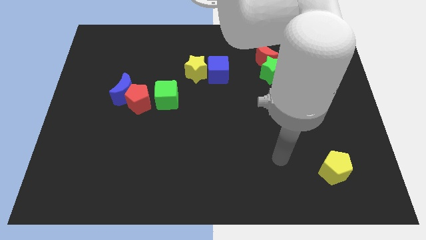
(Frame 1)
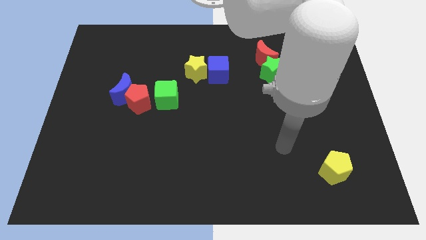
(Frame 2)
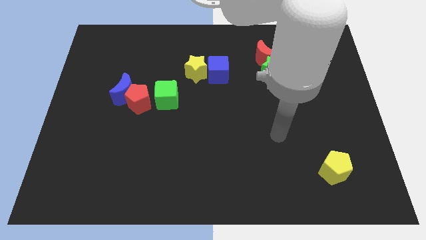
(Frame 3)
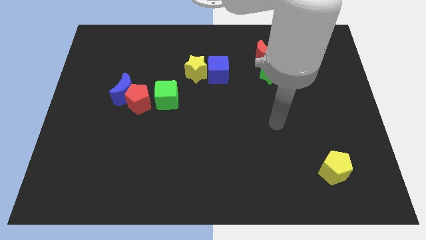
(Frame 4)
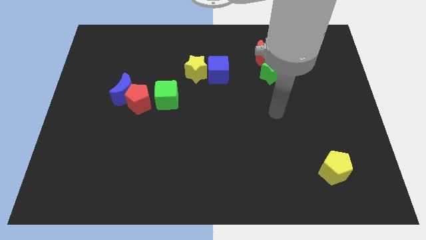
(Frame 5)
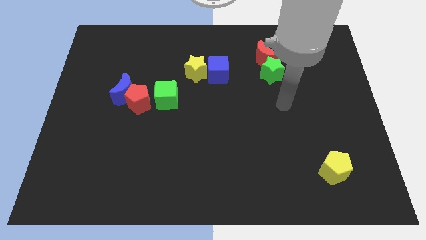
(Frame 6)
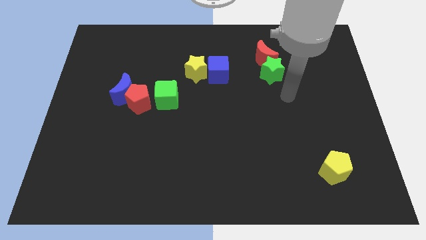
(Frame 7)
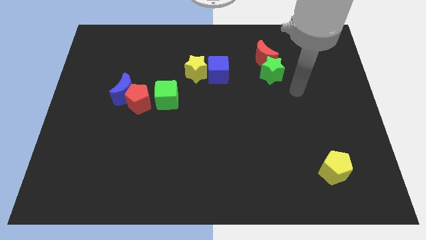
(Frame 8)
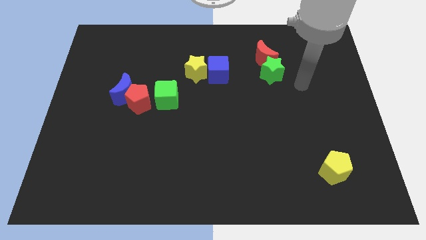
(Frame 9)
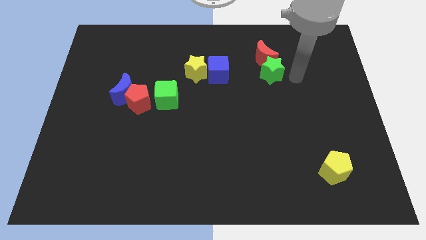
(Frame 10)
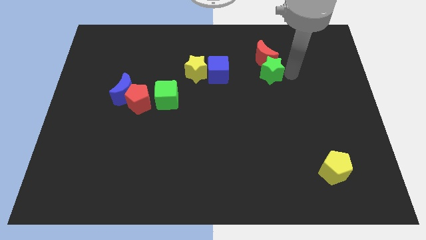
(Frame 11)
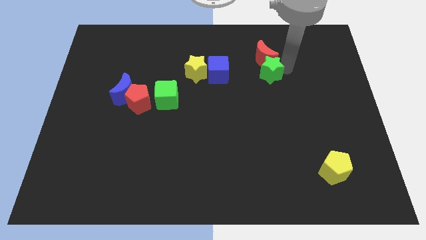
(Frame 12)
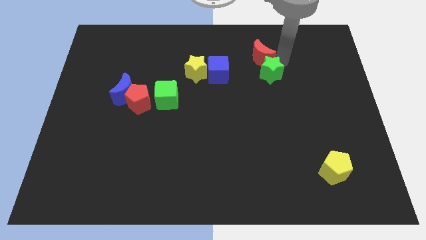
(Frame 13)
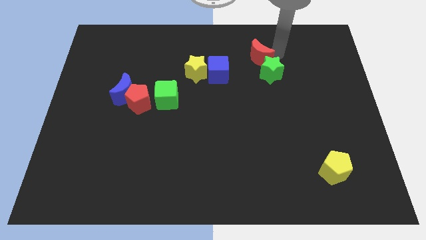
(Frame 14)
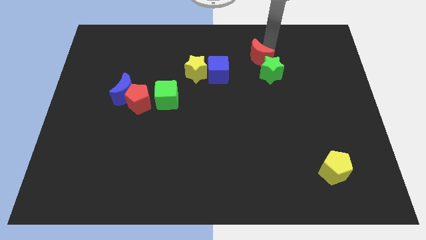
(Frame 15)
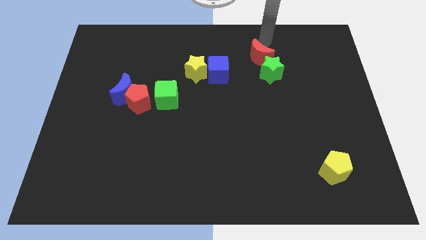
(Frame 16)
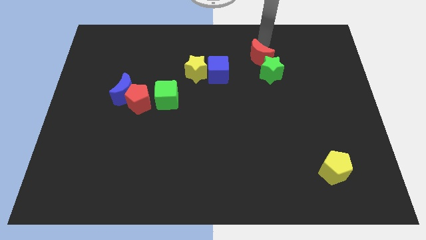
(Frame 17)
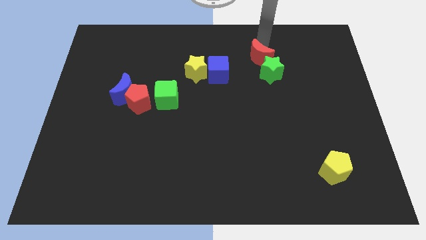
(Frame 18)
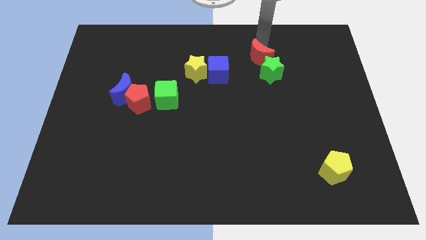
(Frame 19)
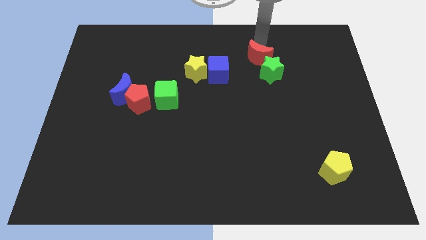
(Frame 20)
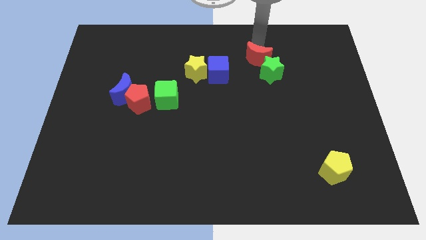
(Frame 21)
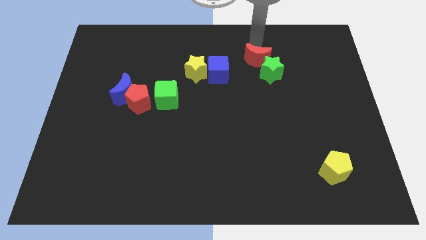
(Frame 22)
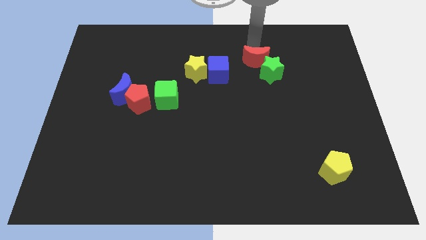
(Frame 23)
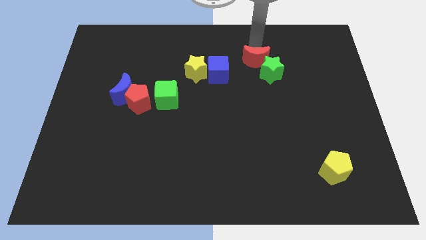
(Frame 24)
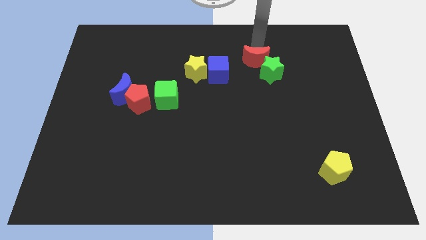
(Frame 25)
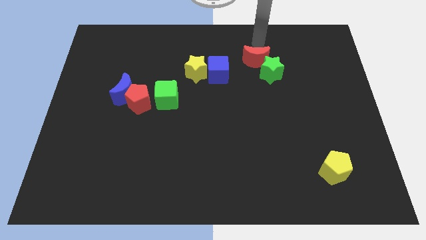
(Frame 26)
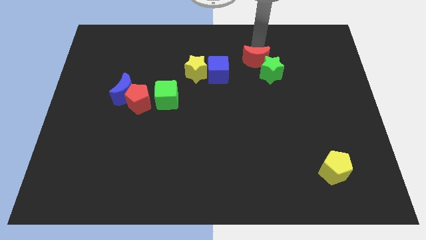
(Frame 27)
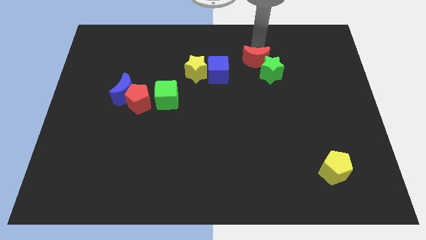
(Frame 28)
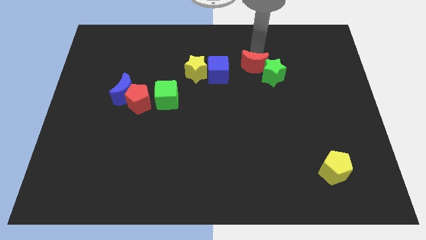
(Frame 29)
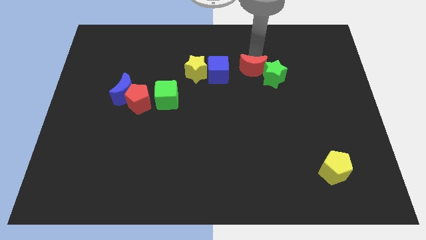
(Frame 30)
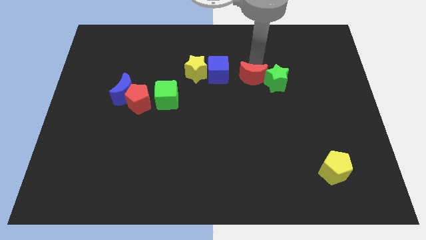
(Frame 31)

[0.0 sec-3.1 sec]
move the red moon a bit downwards and to the left diagonally

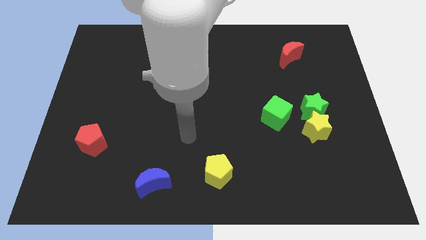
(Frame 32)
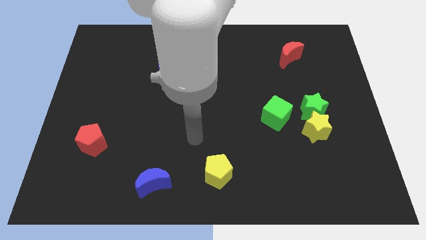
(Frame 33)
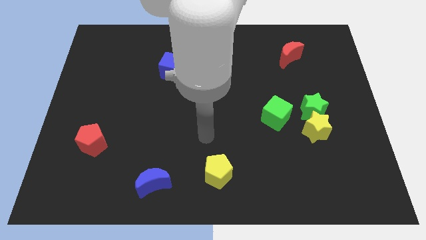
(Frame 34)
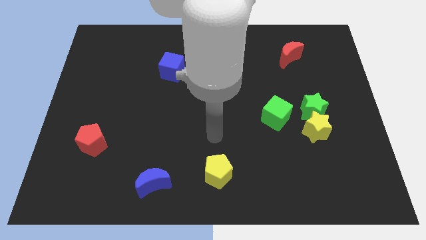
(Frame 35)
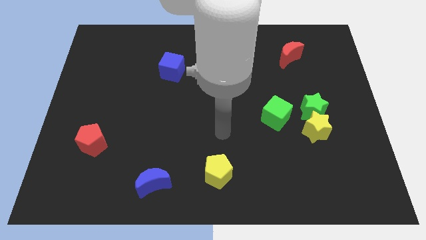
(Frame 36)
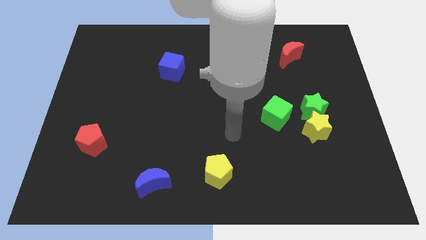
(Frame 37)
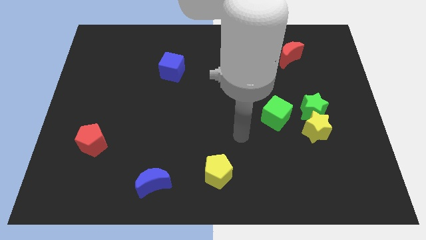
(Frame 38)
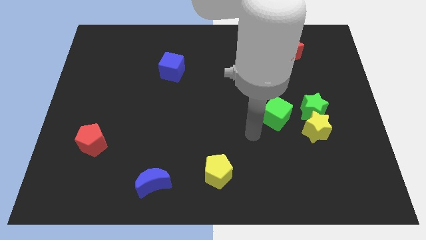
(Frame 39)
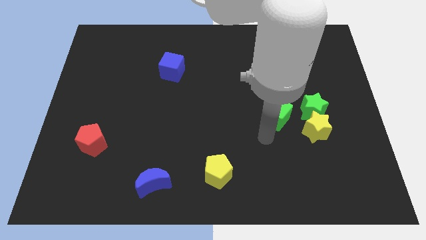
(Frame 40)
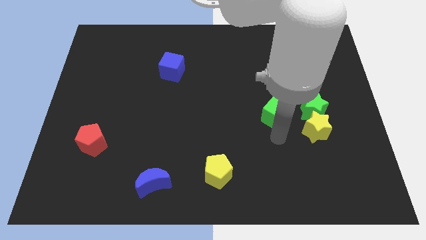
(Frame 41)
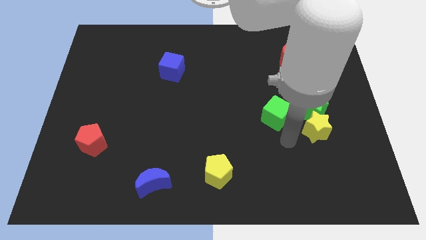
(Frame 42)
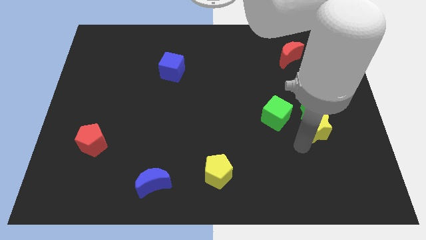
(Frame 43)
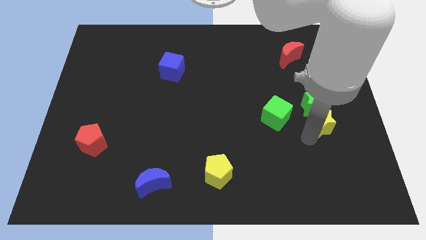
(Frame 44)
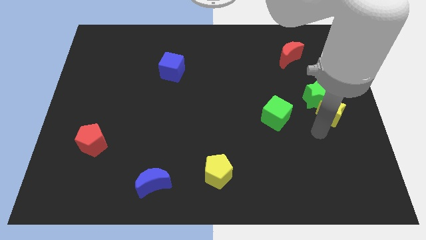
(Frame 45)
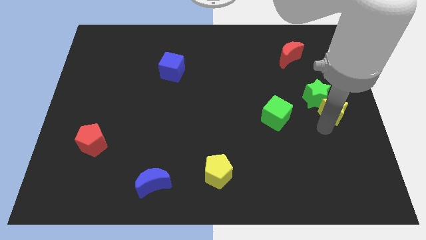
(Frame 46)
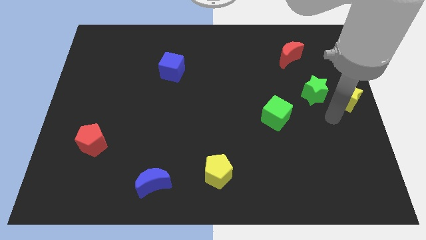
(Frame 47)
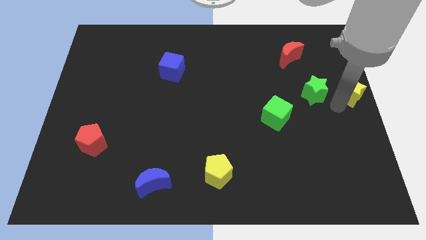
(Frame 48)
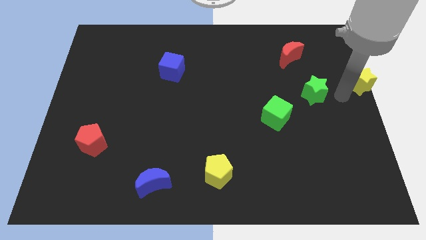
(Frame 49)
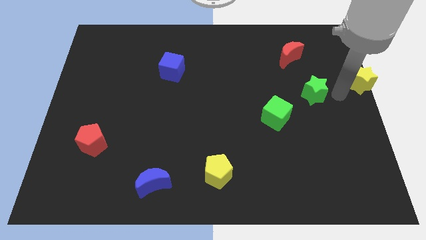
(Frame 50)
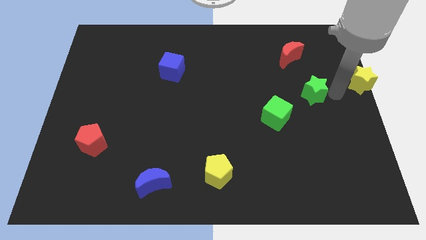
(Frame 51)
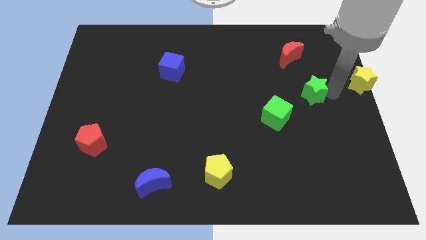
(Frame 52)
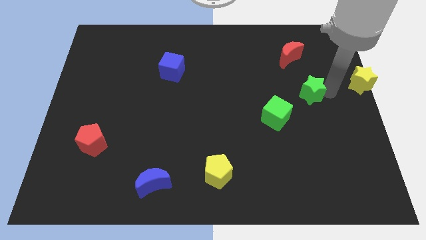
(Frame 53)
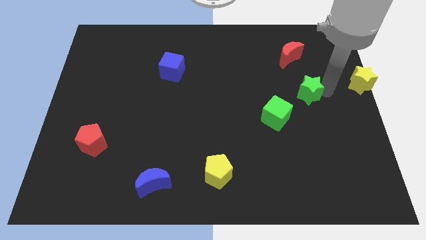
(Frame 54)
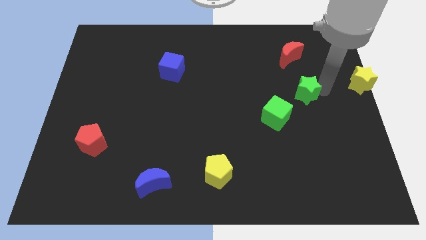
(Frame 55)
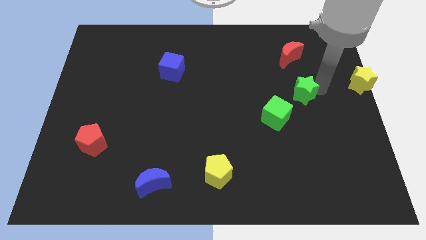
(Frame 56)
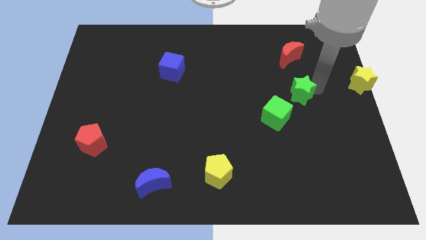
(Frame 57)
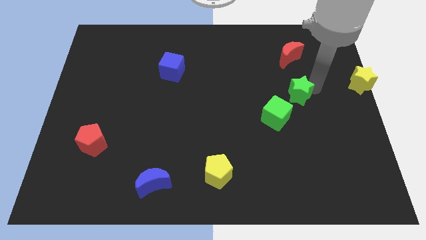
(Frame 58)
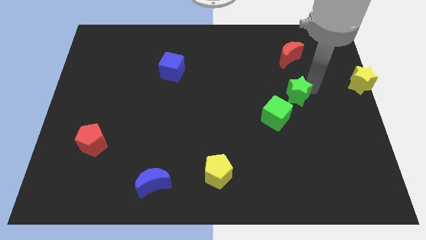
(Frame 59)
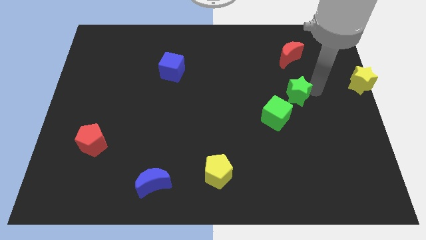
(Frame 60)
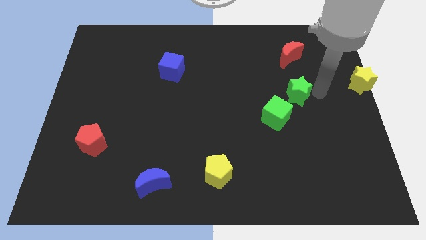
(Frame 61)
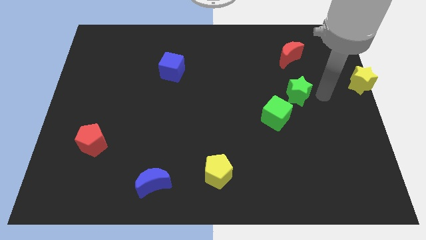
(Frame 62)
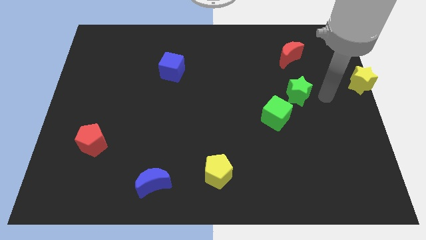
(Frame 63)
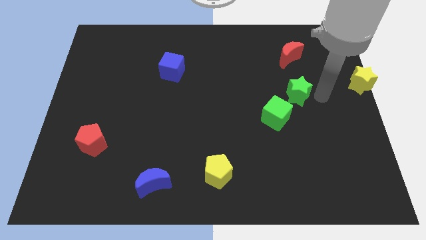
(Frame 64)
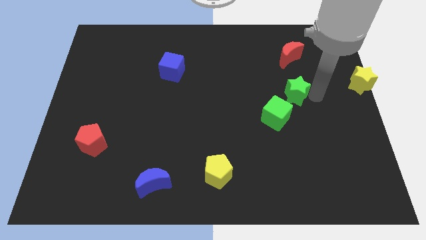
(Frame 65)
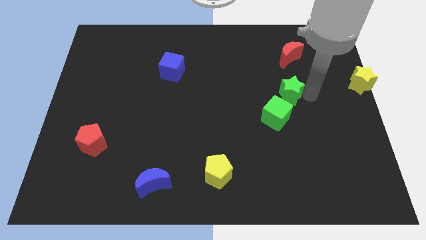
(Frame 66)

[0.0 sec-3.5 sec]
slide the green star a bit up and then left

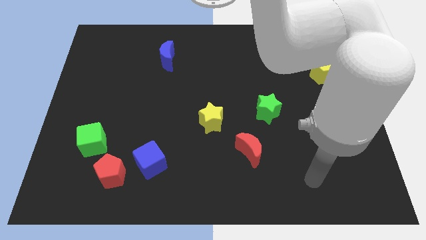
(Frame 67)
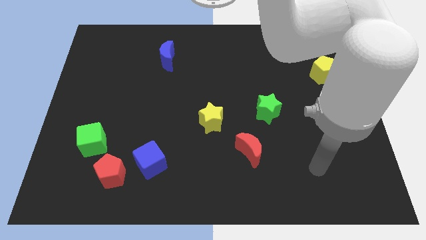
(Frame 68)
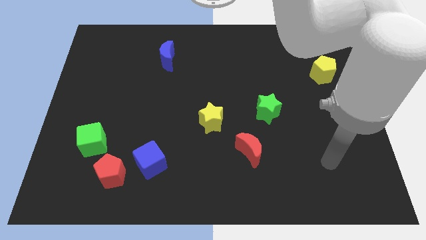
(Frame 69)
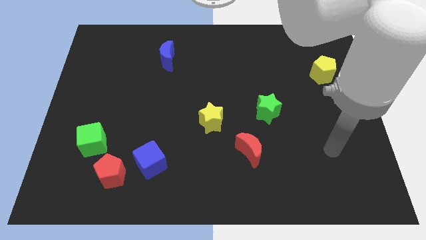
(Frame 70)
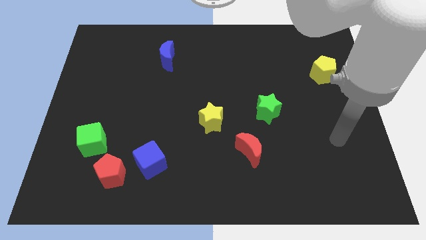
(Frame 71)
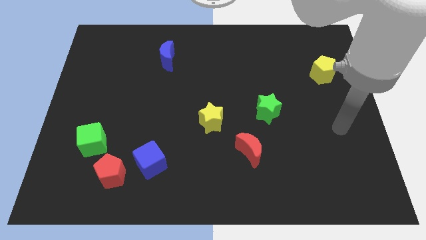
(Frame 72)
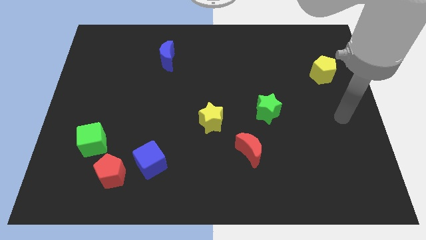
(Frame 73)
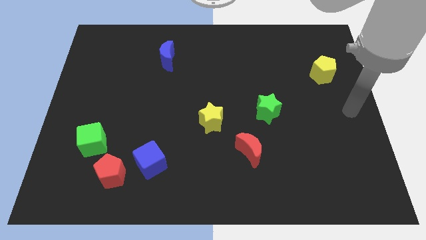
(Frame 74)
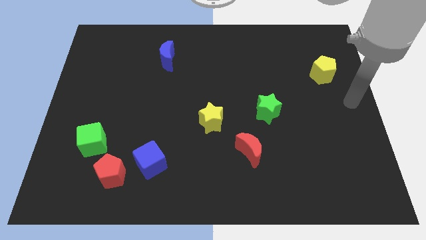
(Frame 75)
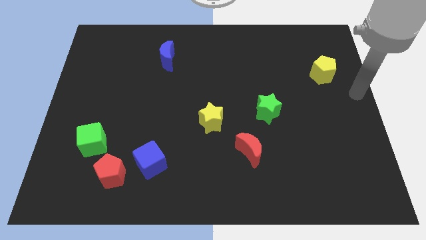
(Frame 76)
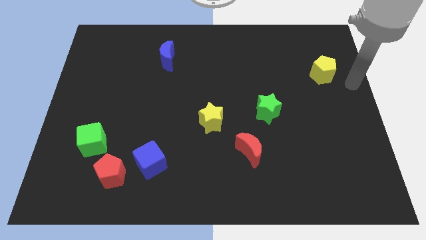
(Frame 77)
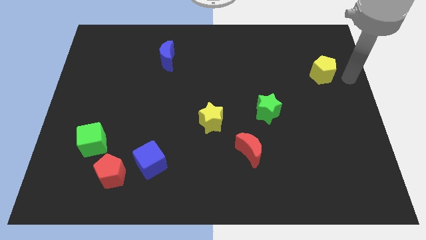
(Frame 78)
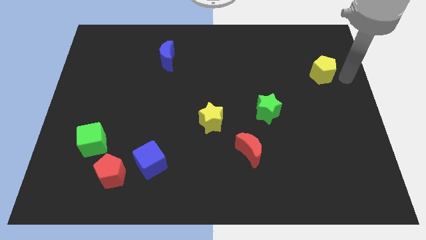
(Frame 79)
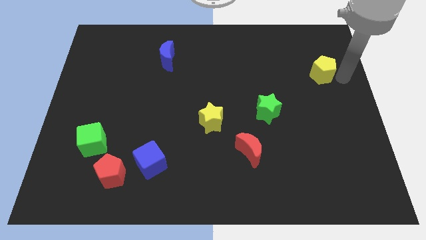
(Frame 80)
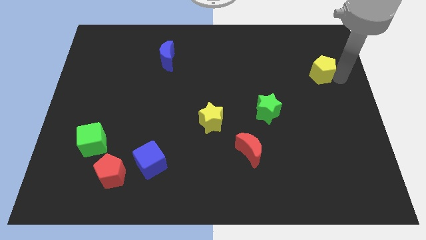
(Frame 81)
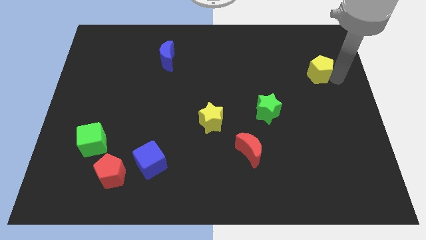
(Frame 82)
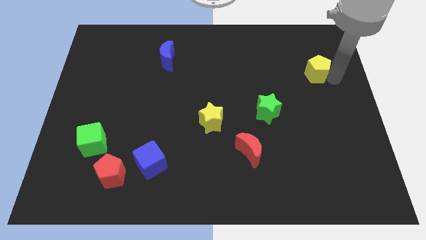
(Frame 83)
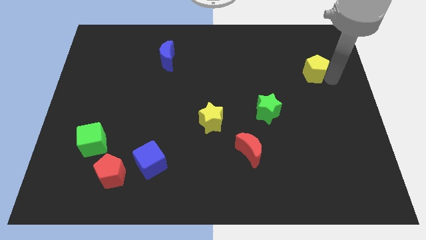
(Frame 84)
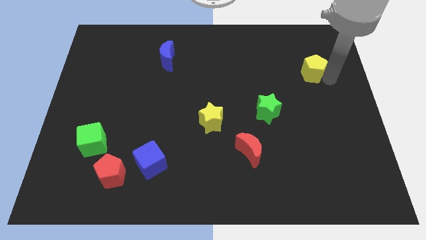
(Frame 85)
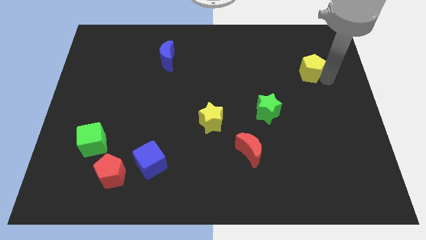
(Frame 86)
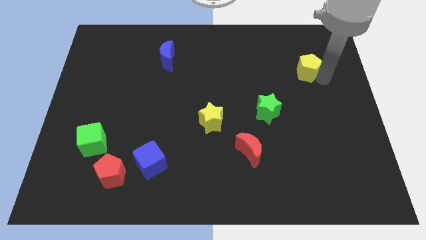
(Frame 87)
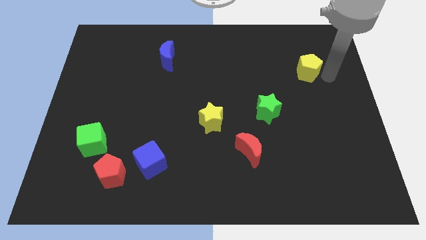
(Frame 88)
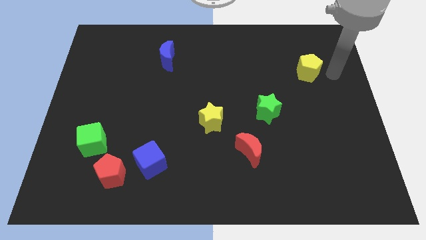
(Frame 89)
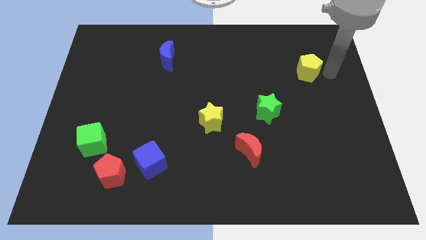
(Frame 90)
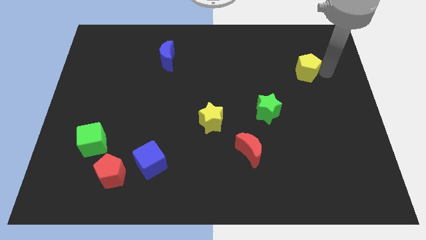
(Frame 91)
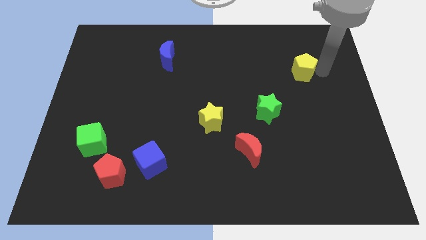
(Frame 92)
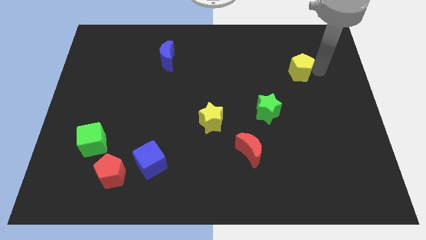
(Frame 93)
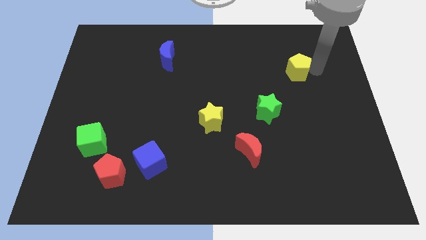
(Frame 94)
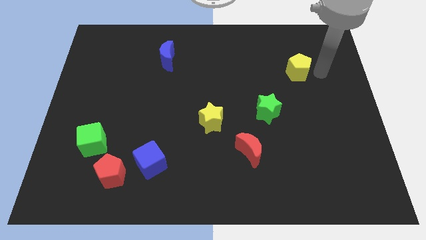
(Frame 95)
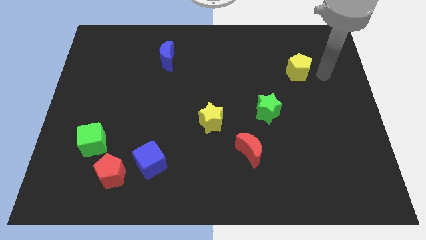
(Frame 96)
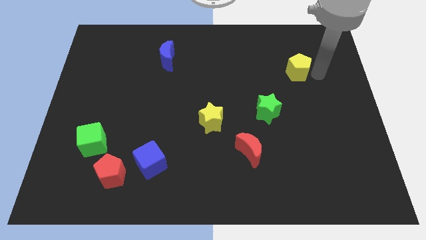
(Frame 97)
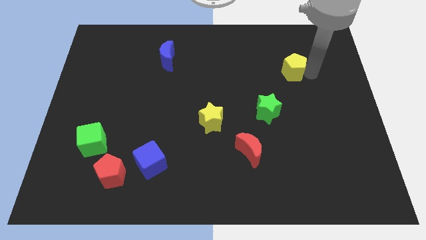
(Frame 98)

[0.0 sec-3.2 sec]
slightly move the yellow pentagon to the left
